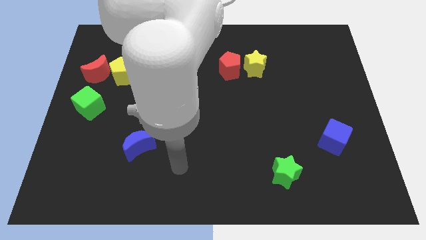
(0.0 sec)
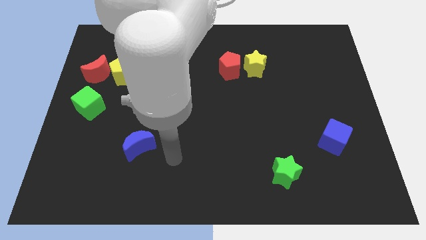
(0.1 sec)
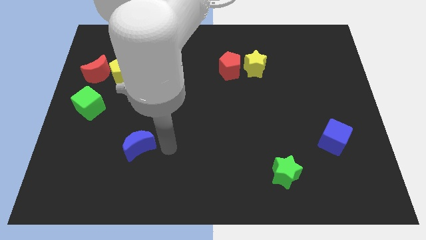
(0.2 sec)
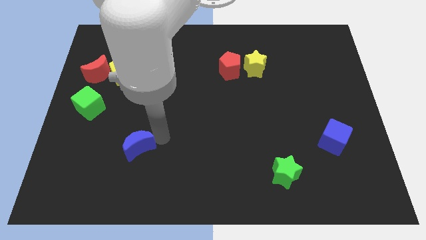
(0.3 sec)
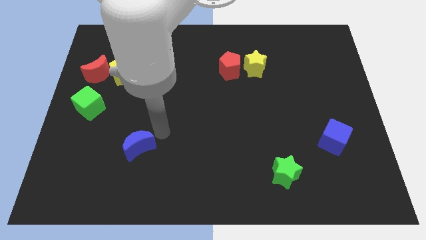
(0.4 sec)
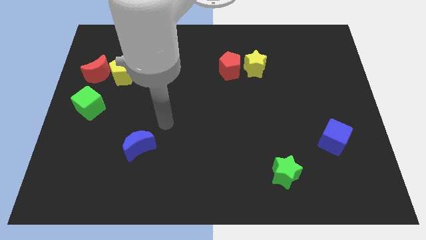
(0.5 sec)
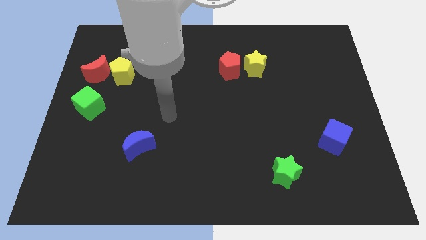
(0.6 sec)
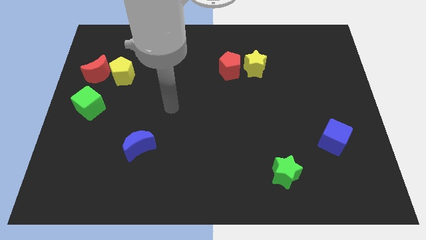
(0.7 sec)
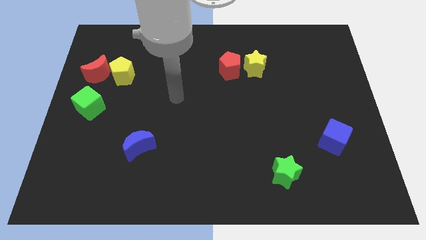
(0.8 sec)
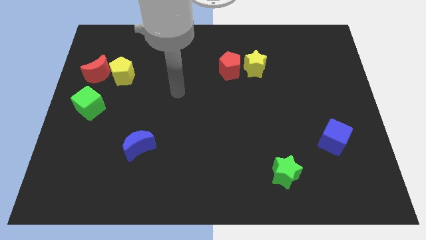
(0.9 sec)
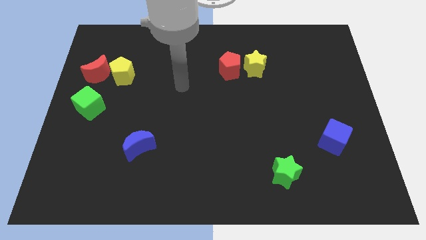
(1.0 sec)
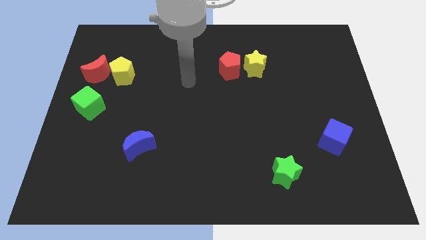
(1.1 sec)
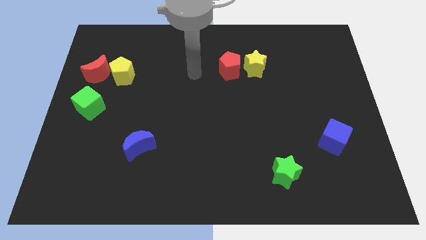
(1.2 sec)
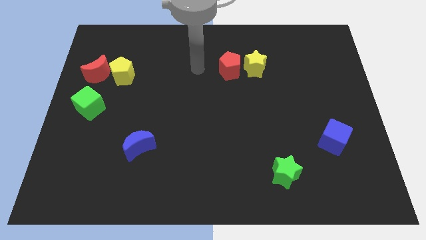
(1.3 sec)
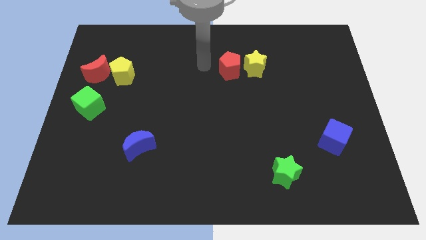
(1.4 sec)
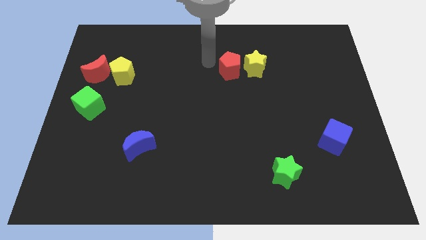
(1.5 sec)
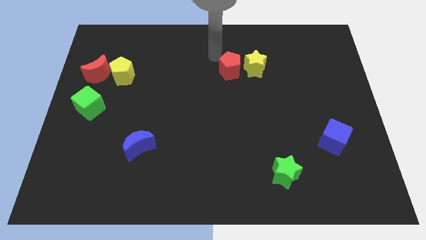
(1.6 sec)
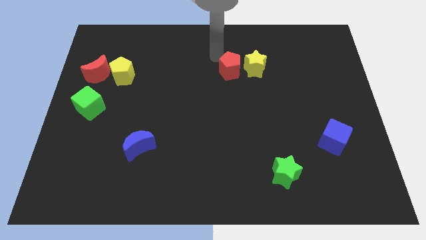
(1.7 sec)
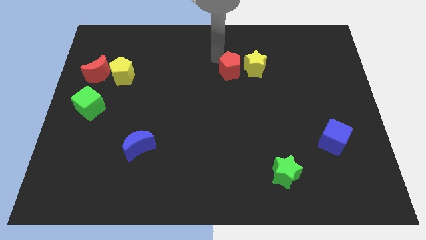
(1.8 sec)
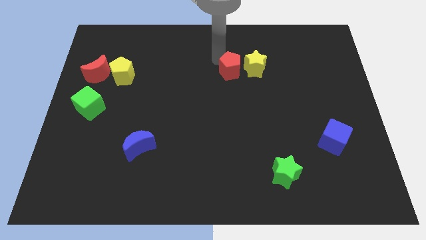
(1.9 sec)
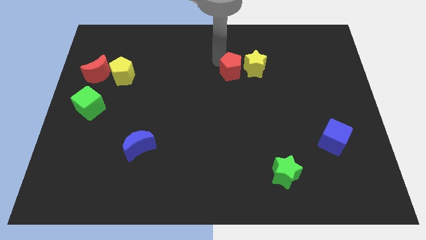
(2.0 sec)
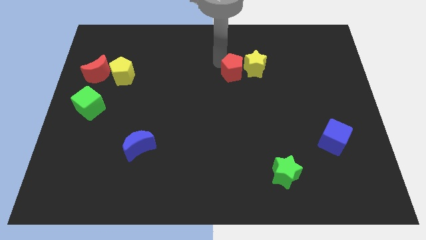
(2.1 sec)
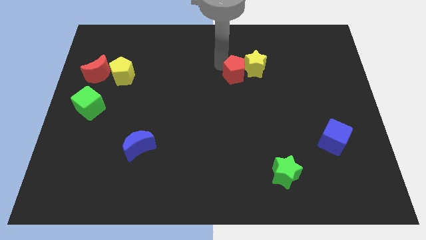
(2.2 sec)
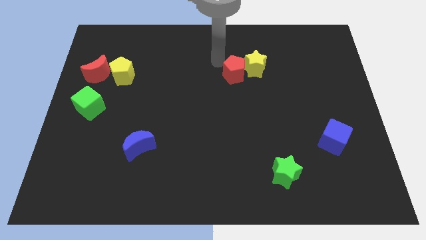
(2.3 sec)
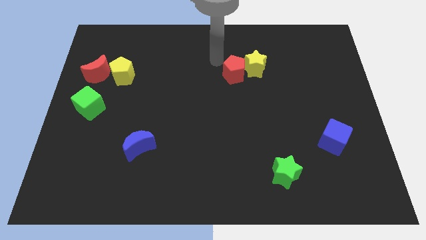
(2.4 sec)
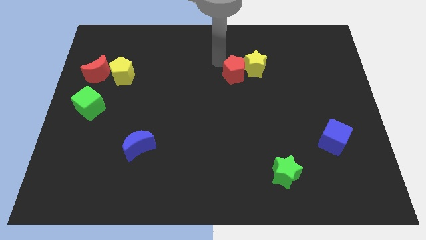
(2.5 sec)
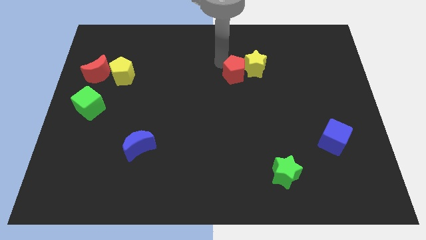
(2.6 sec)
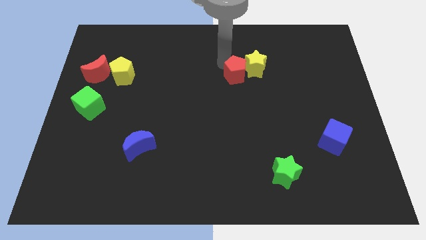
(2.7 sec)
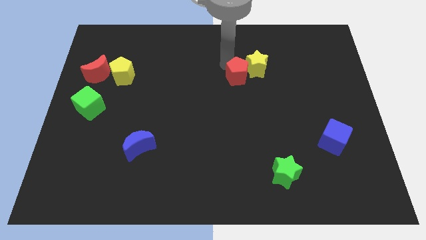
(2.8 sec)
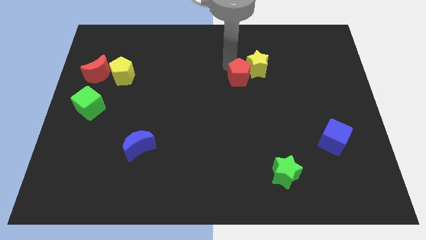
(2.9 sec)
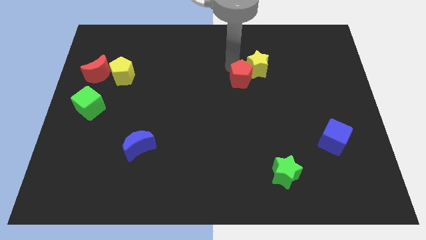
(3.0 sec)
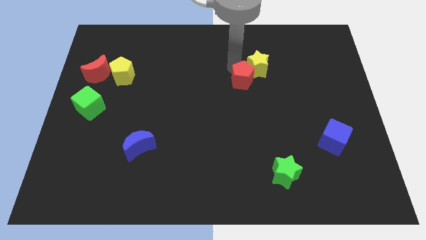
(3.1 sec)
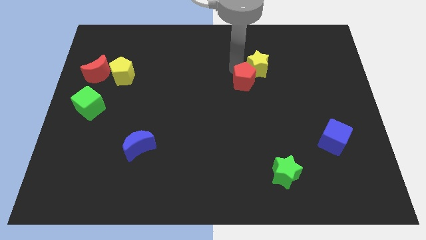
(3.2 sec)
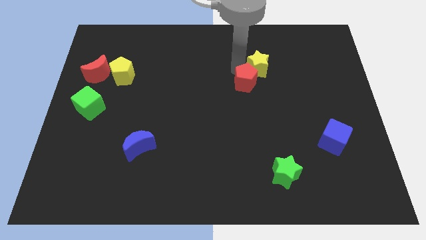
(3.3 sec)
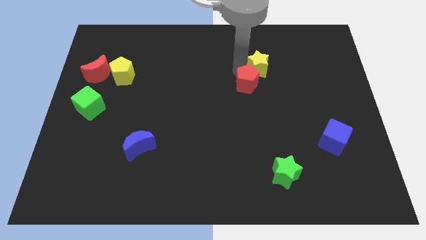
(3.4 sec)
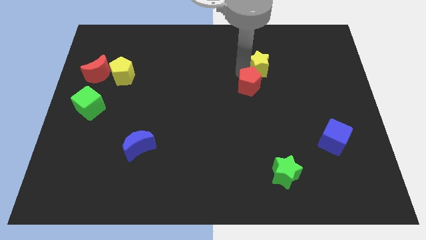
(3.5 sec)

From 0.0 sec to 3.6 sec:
slide the red pentagon downwards and to the right diagonally a bit

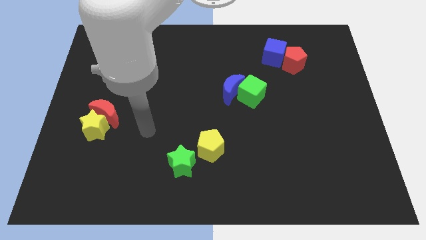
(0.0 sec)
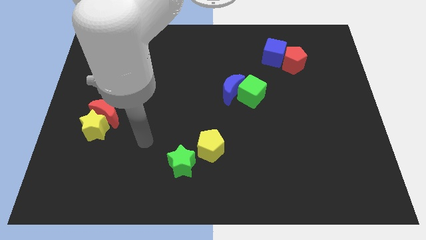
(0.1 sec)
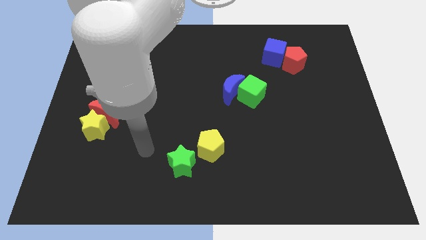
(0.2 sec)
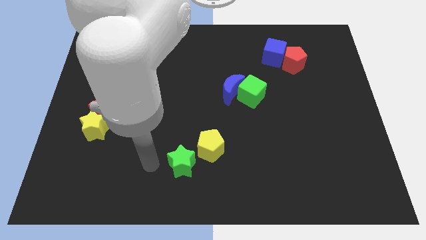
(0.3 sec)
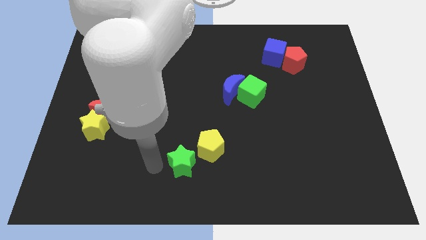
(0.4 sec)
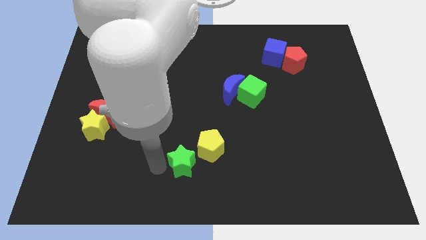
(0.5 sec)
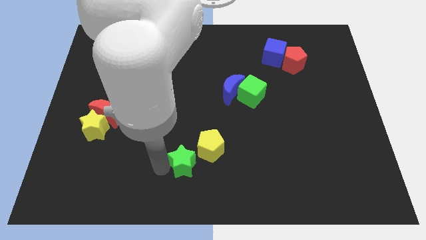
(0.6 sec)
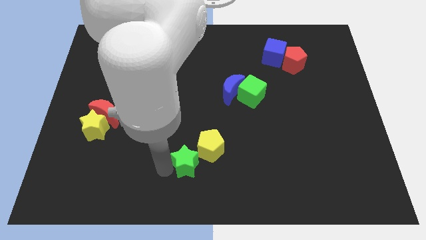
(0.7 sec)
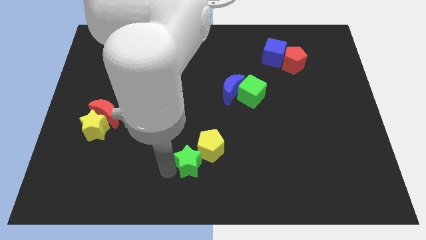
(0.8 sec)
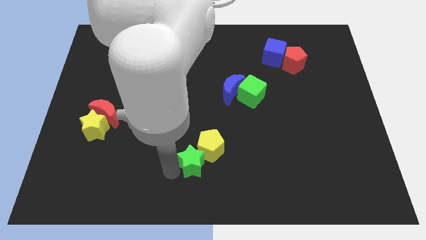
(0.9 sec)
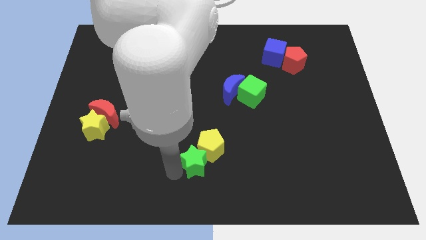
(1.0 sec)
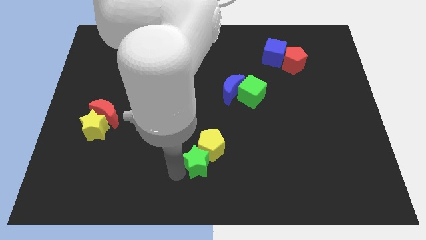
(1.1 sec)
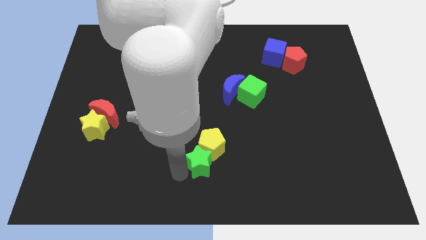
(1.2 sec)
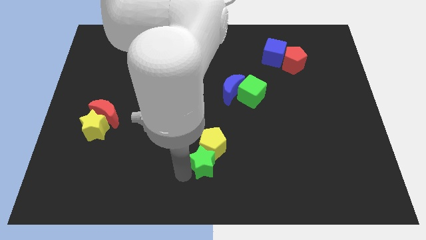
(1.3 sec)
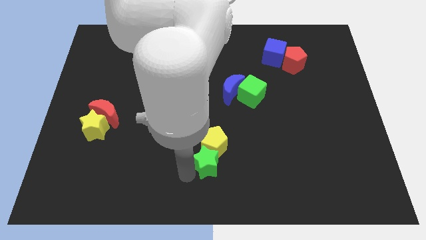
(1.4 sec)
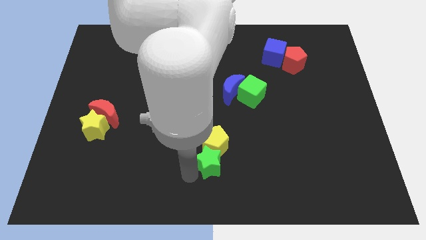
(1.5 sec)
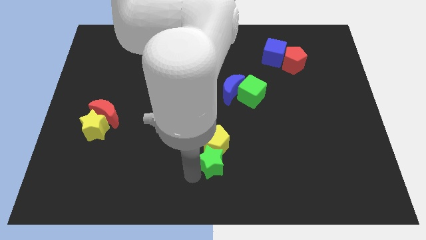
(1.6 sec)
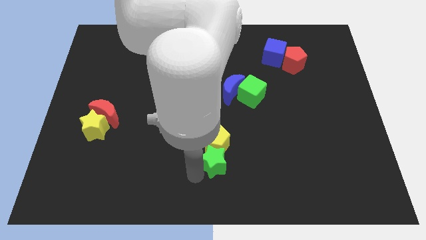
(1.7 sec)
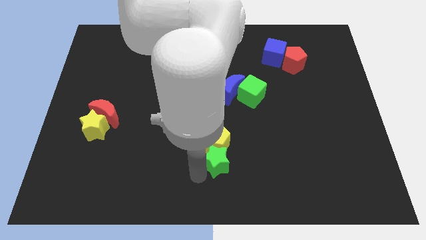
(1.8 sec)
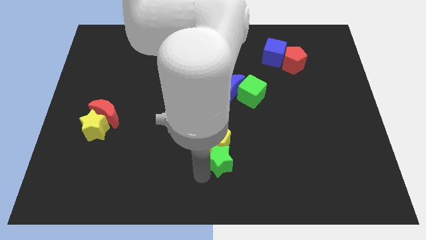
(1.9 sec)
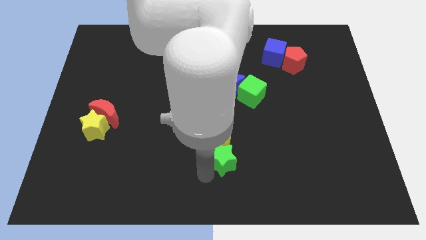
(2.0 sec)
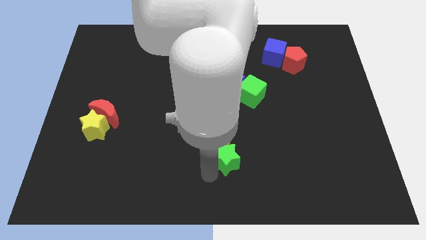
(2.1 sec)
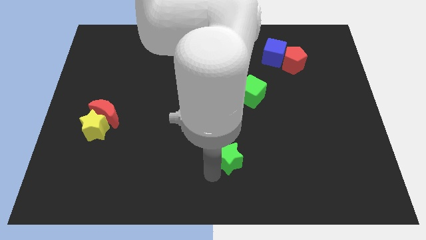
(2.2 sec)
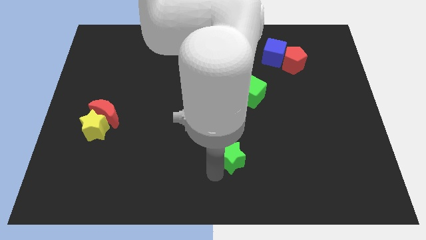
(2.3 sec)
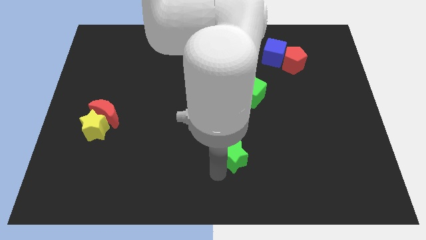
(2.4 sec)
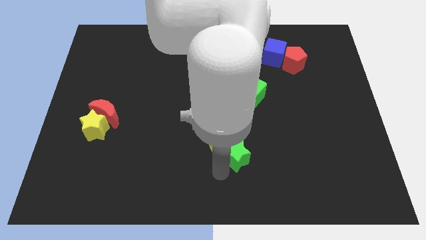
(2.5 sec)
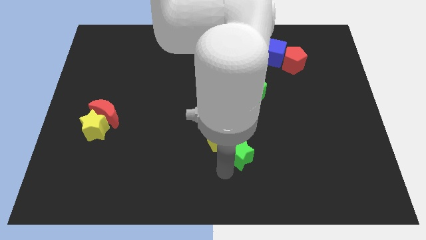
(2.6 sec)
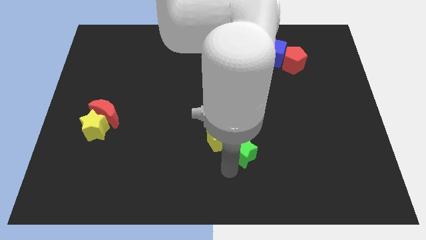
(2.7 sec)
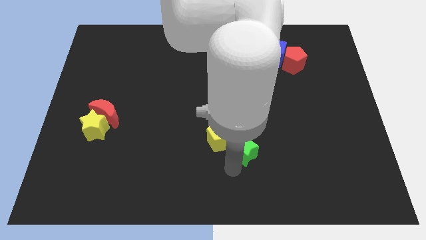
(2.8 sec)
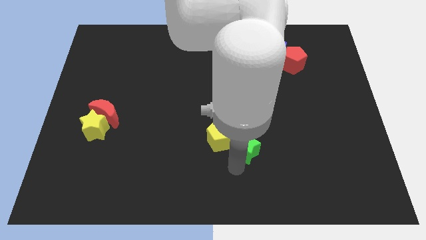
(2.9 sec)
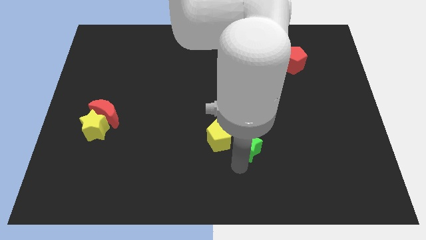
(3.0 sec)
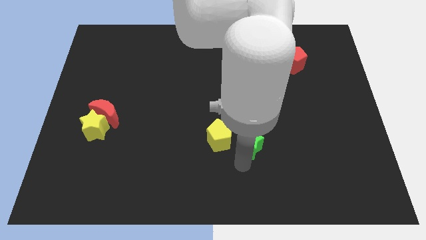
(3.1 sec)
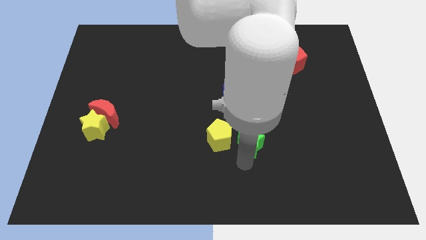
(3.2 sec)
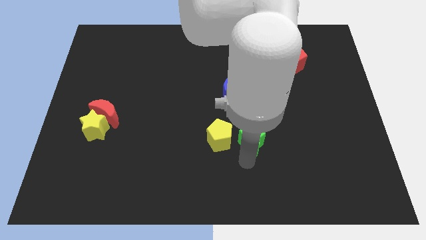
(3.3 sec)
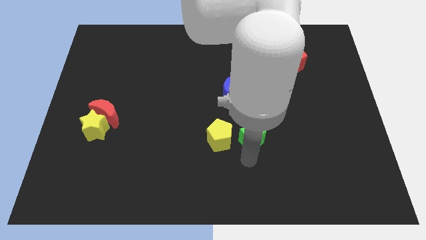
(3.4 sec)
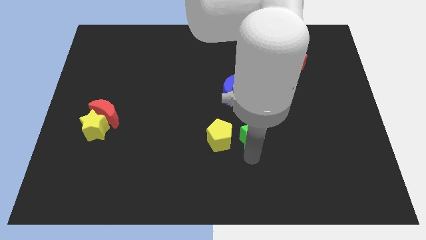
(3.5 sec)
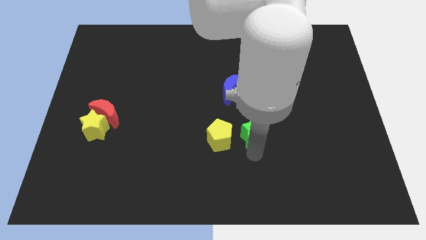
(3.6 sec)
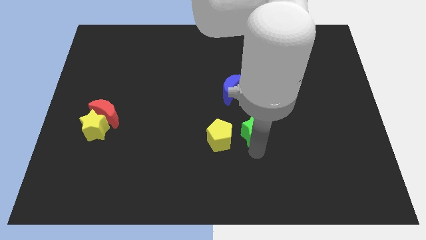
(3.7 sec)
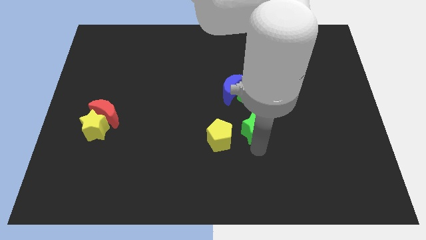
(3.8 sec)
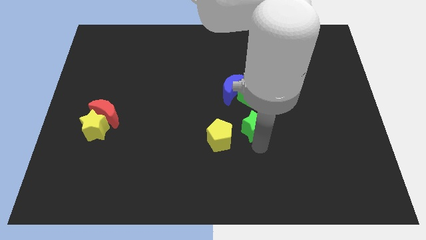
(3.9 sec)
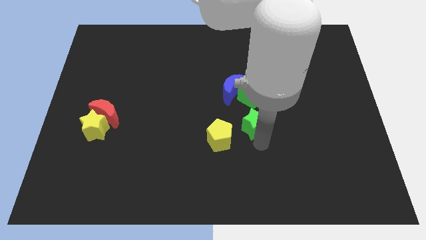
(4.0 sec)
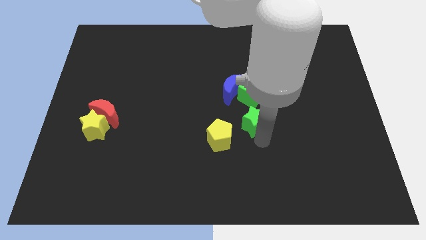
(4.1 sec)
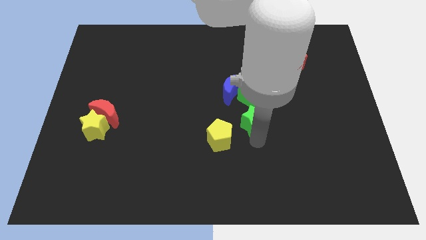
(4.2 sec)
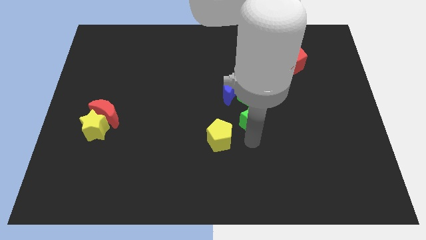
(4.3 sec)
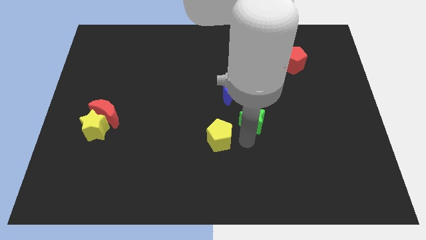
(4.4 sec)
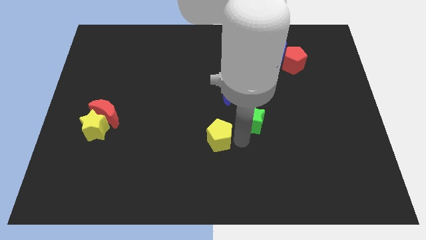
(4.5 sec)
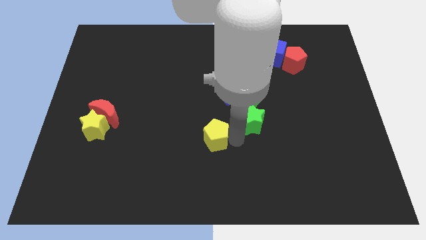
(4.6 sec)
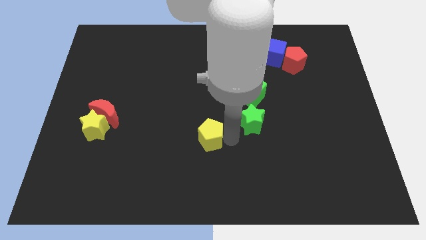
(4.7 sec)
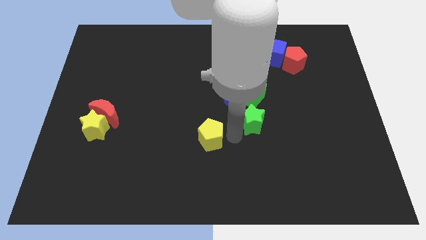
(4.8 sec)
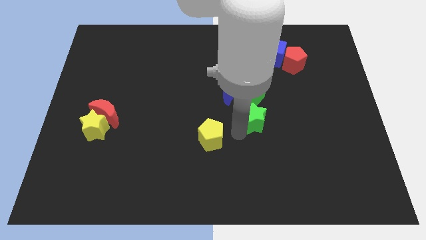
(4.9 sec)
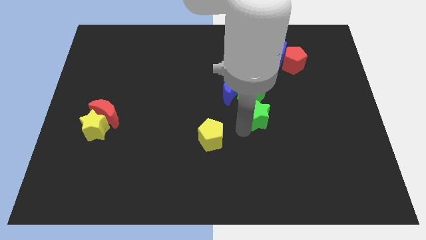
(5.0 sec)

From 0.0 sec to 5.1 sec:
move the green star diagonally upwards and right
